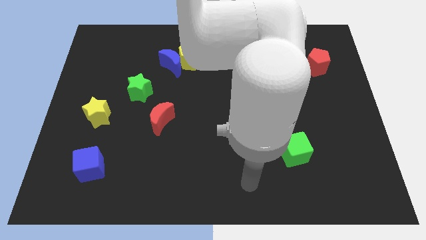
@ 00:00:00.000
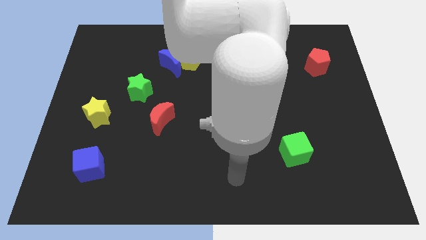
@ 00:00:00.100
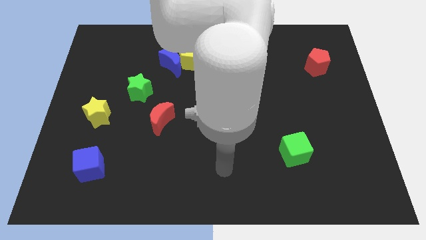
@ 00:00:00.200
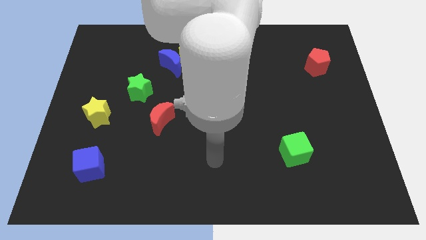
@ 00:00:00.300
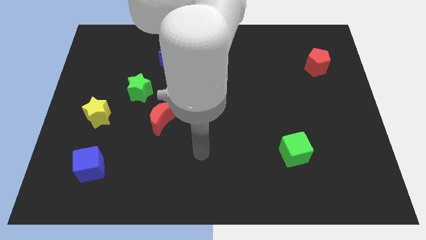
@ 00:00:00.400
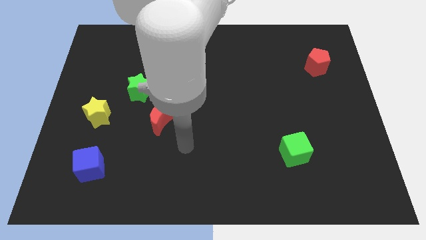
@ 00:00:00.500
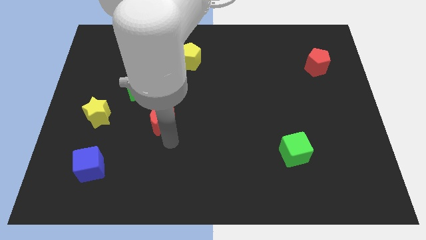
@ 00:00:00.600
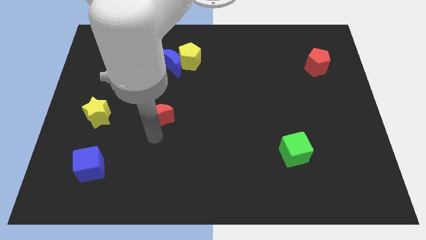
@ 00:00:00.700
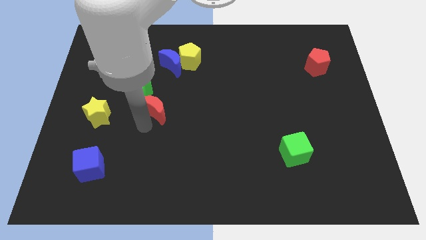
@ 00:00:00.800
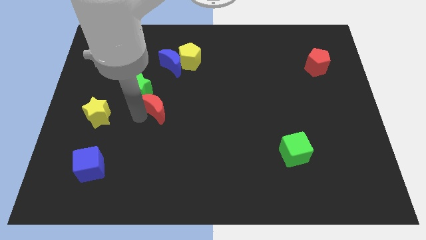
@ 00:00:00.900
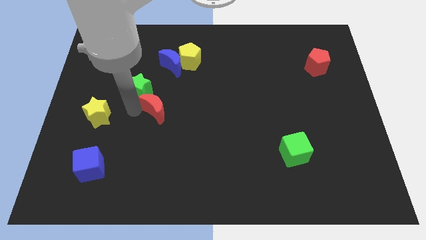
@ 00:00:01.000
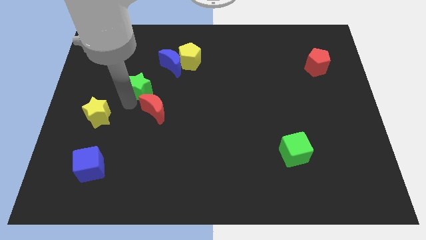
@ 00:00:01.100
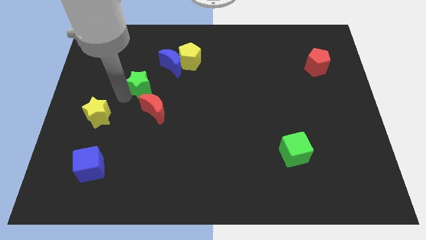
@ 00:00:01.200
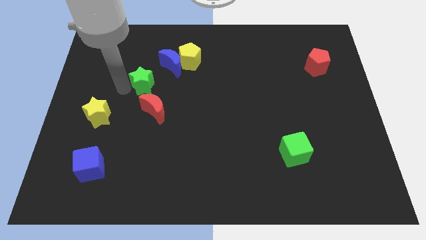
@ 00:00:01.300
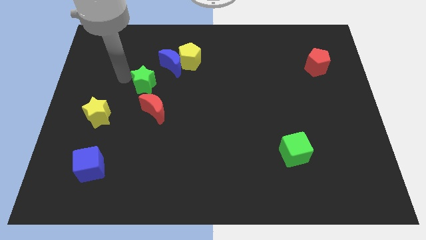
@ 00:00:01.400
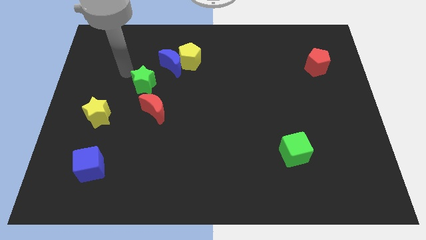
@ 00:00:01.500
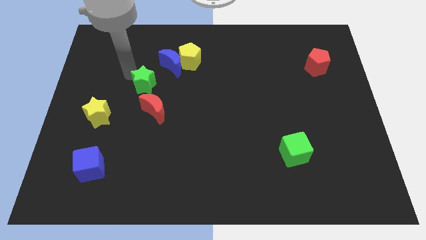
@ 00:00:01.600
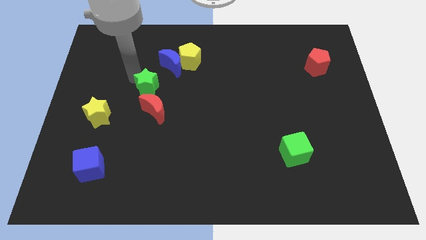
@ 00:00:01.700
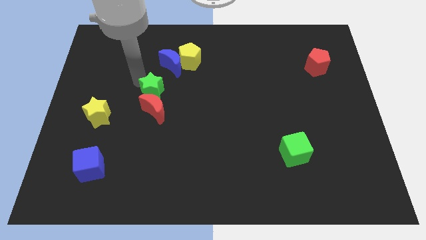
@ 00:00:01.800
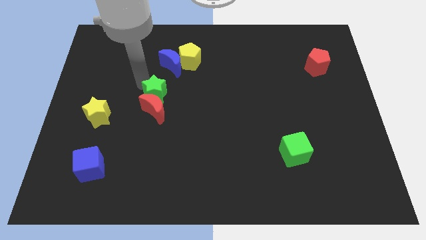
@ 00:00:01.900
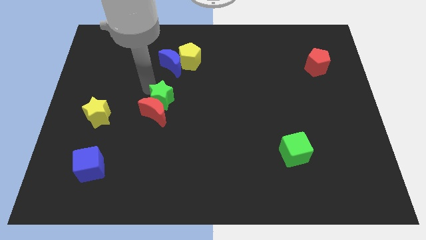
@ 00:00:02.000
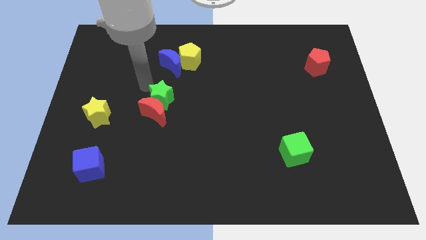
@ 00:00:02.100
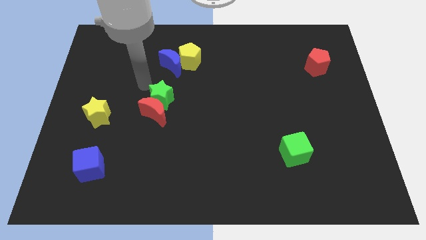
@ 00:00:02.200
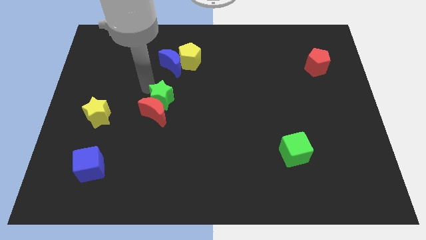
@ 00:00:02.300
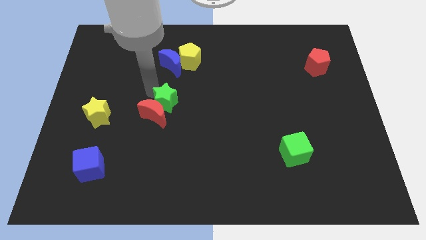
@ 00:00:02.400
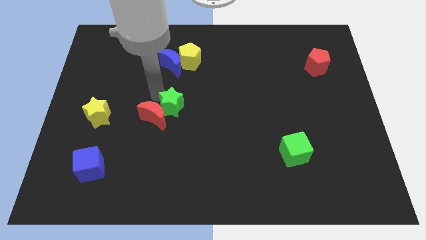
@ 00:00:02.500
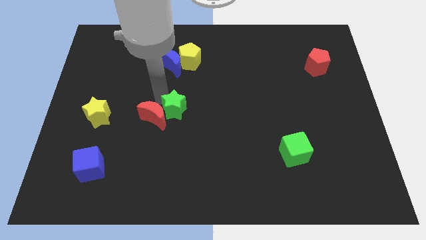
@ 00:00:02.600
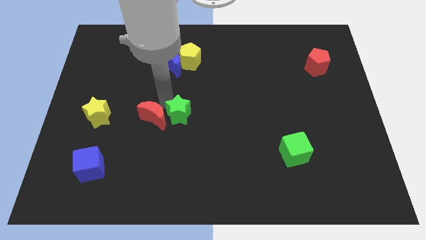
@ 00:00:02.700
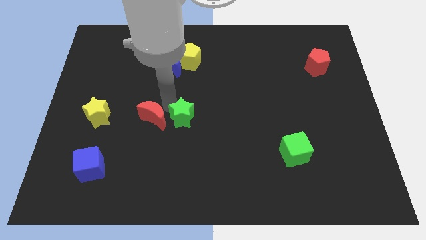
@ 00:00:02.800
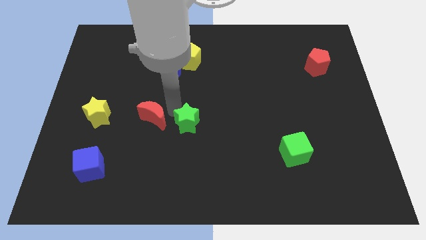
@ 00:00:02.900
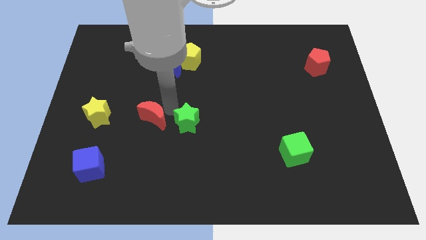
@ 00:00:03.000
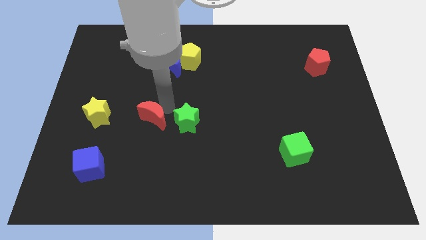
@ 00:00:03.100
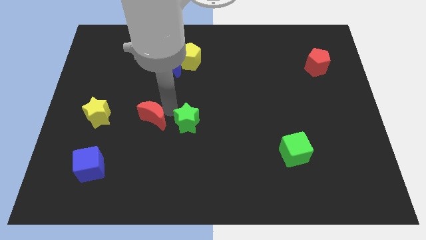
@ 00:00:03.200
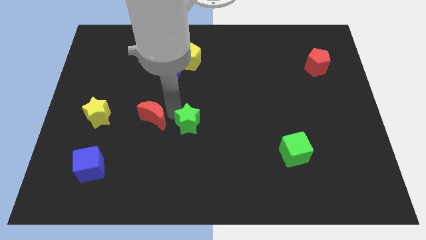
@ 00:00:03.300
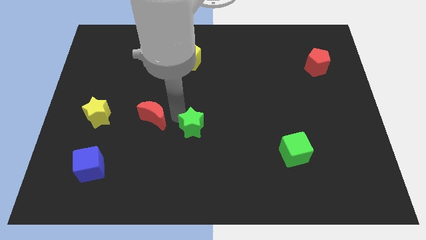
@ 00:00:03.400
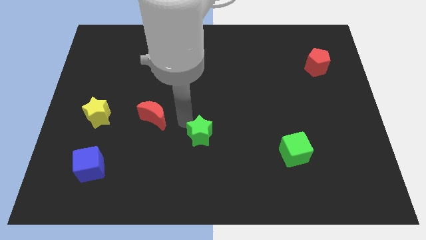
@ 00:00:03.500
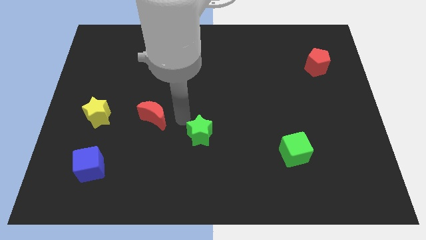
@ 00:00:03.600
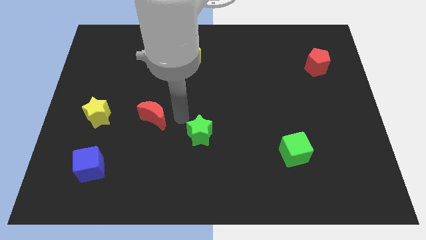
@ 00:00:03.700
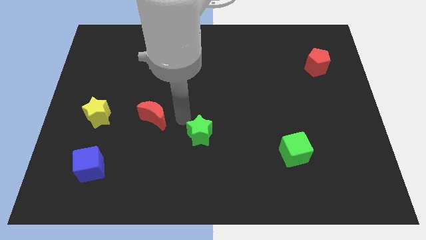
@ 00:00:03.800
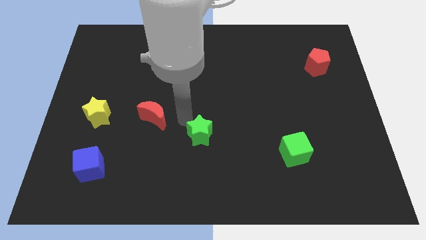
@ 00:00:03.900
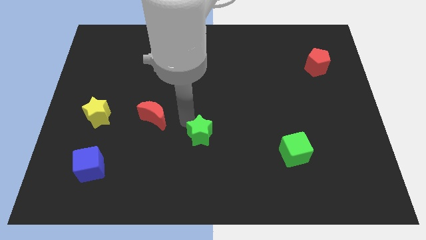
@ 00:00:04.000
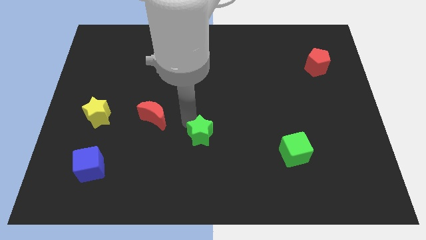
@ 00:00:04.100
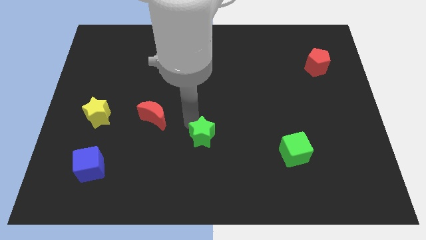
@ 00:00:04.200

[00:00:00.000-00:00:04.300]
move the green star downwards and then to the right

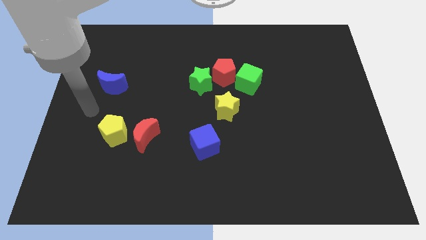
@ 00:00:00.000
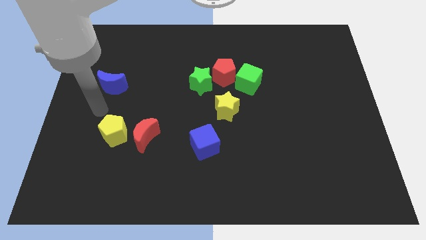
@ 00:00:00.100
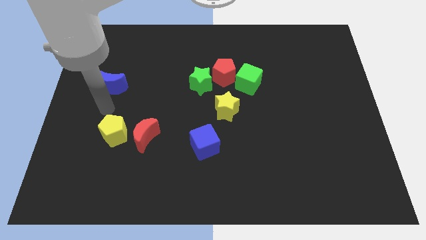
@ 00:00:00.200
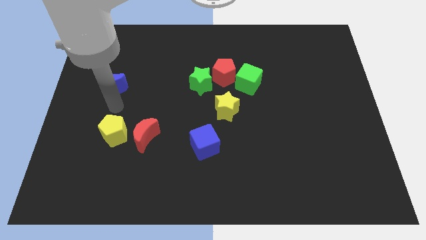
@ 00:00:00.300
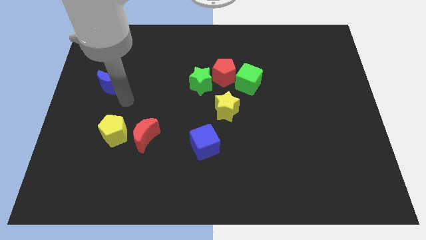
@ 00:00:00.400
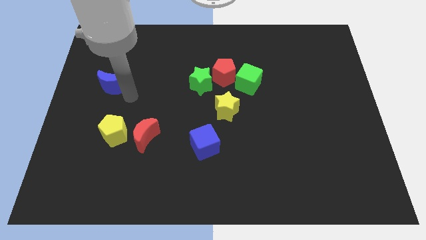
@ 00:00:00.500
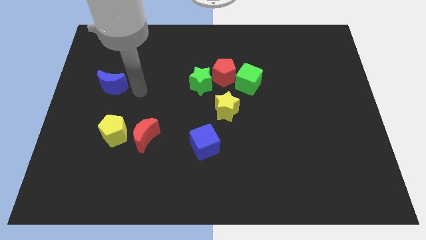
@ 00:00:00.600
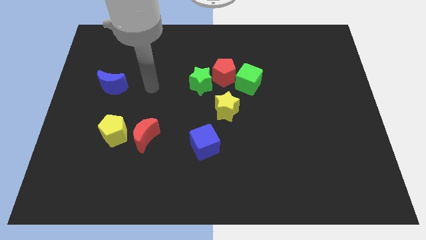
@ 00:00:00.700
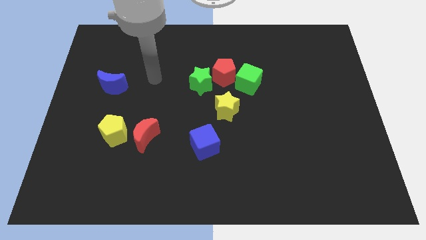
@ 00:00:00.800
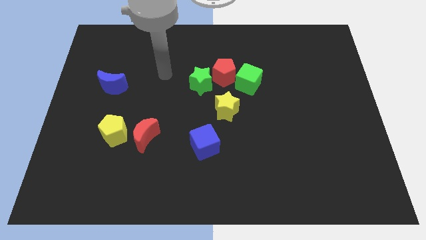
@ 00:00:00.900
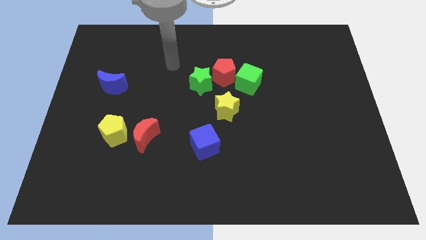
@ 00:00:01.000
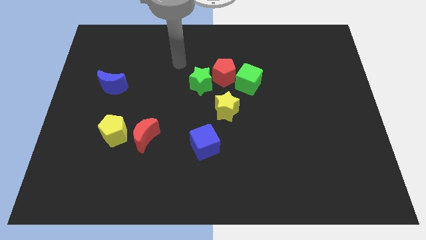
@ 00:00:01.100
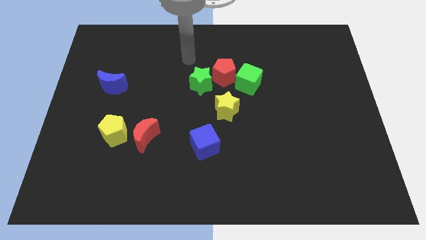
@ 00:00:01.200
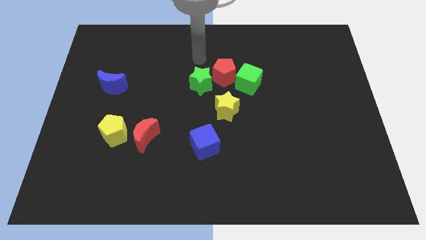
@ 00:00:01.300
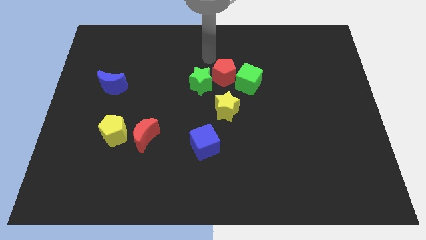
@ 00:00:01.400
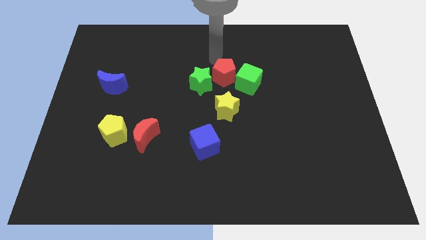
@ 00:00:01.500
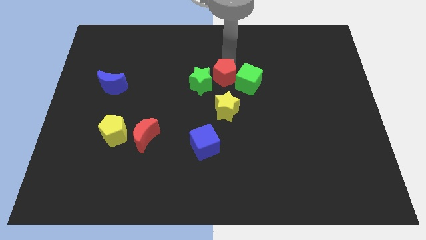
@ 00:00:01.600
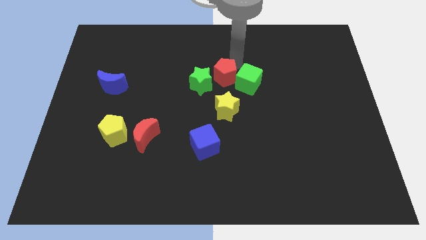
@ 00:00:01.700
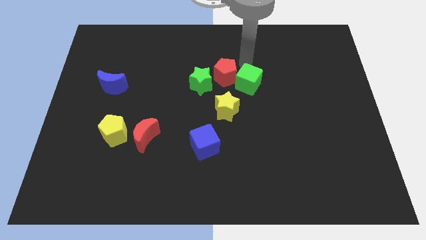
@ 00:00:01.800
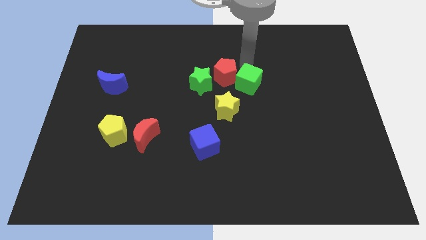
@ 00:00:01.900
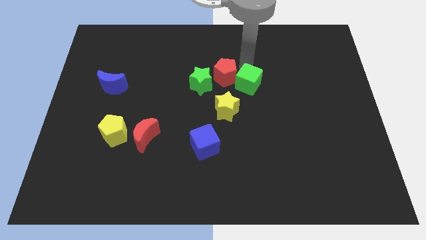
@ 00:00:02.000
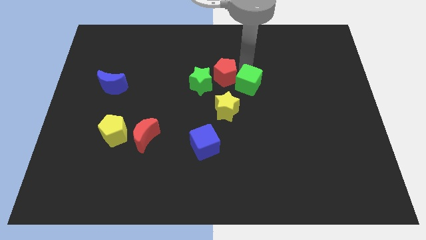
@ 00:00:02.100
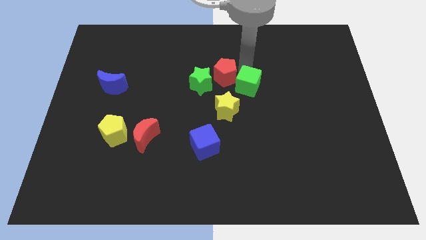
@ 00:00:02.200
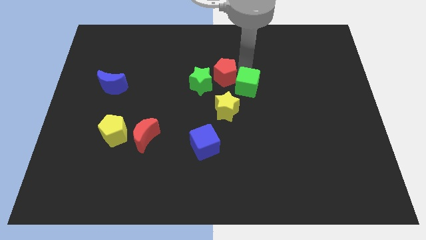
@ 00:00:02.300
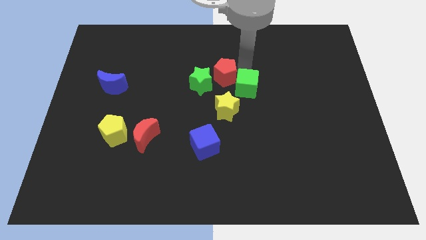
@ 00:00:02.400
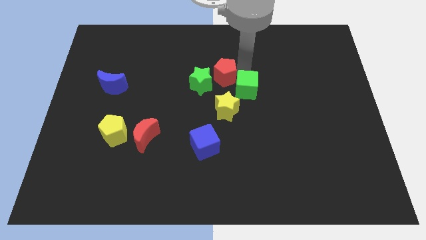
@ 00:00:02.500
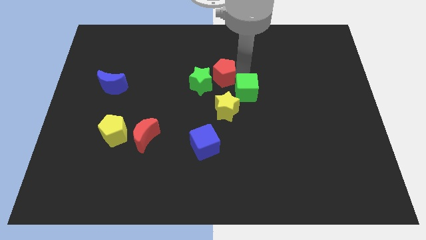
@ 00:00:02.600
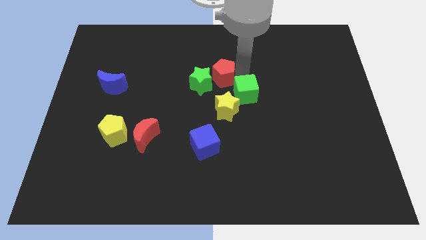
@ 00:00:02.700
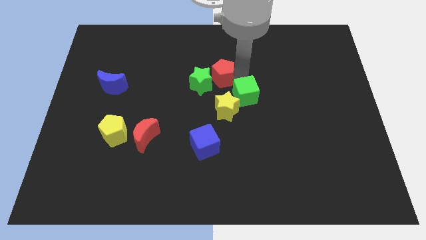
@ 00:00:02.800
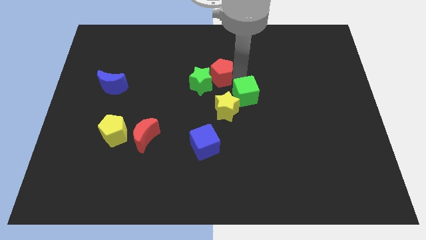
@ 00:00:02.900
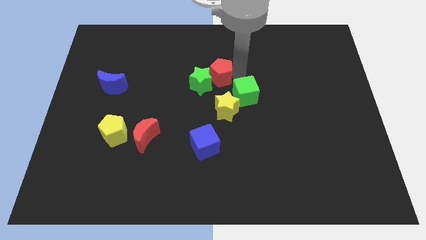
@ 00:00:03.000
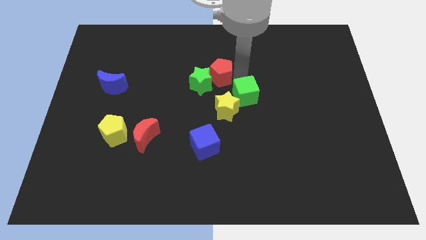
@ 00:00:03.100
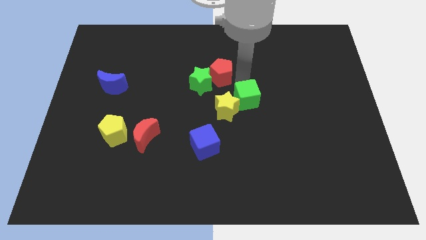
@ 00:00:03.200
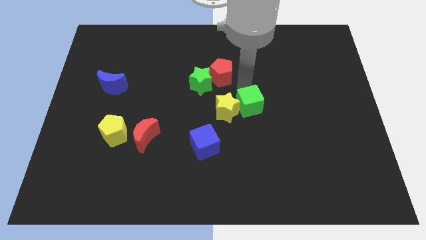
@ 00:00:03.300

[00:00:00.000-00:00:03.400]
slightly slide the green cube down

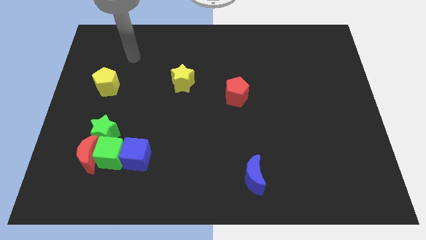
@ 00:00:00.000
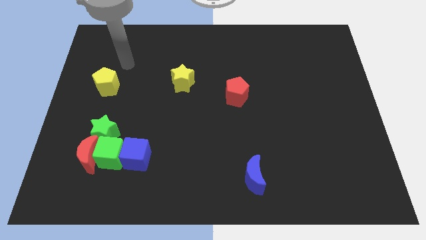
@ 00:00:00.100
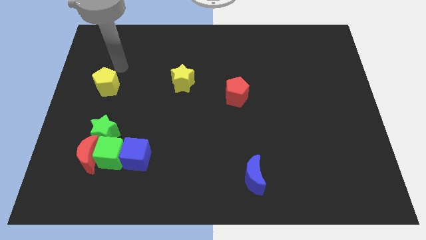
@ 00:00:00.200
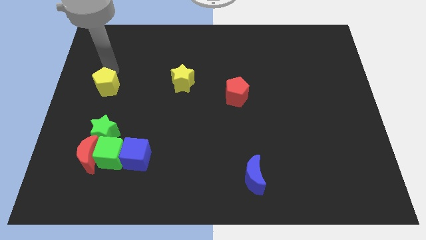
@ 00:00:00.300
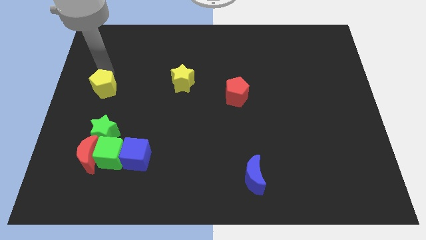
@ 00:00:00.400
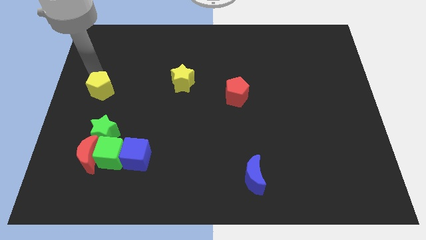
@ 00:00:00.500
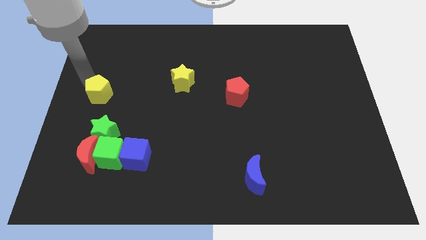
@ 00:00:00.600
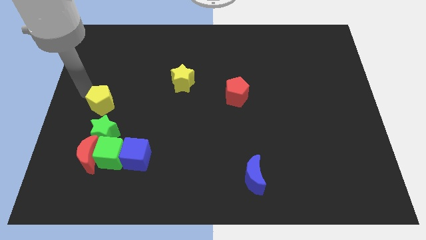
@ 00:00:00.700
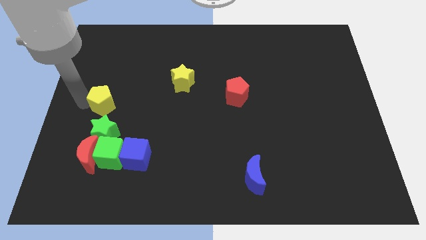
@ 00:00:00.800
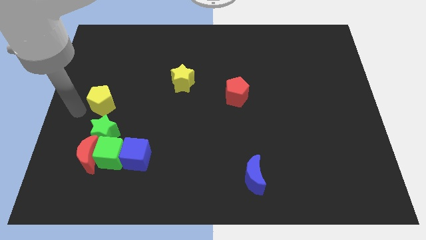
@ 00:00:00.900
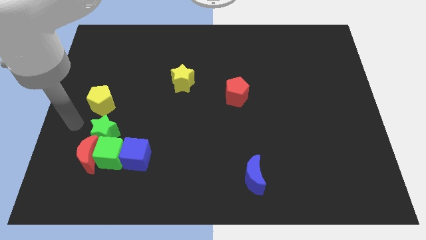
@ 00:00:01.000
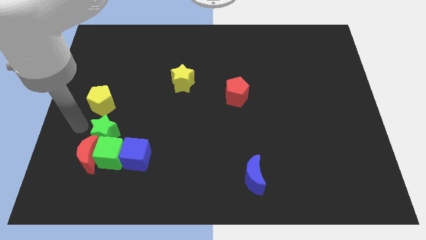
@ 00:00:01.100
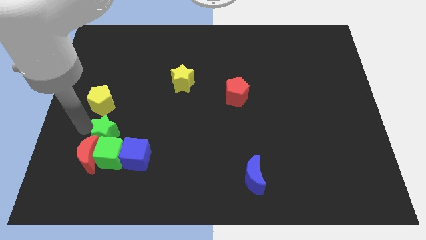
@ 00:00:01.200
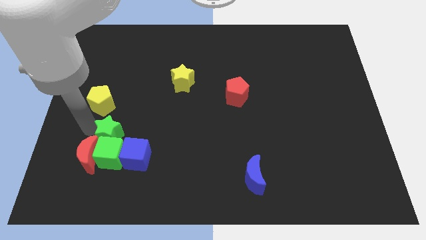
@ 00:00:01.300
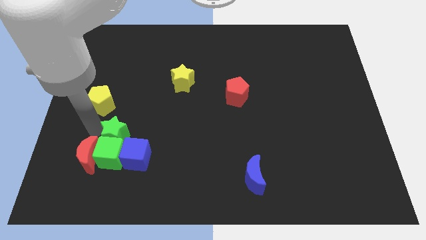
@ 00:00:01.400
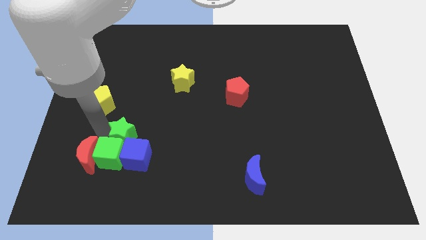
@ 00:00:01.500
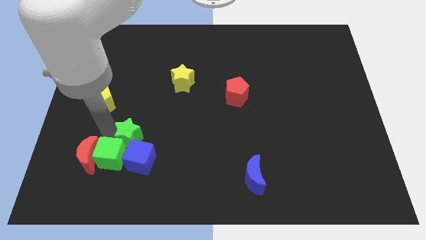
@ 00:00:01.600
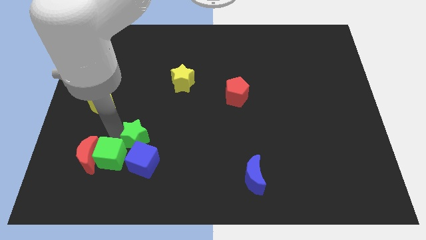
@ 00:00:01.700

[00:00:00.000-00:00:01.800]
push the green star a little bit to the right
